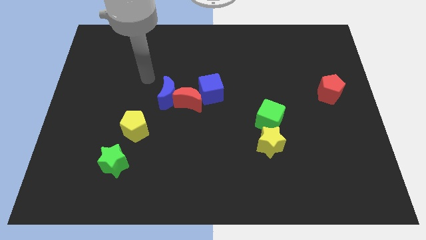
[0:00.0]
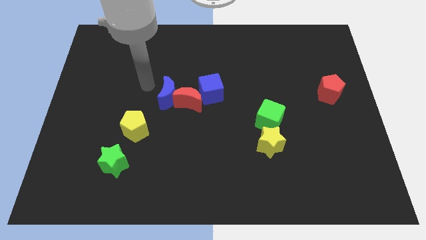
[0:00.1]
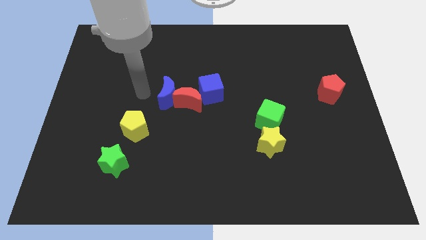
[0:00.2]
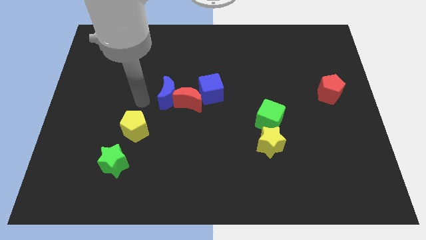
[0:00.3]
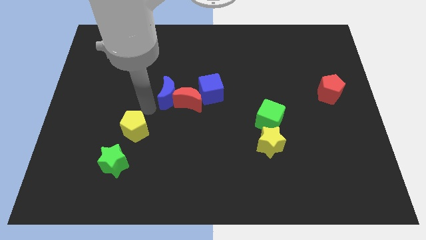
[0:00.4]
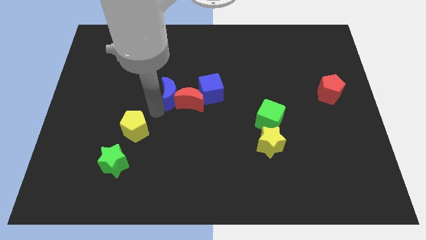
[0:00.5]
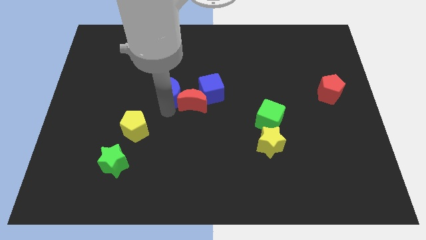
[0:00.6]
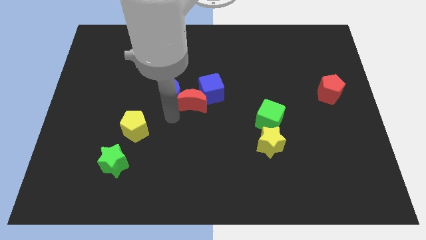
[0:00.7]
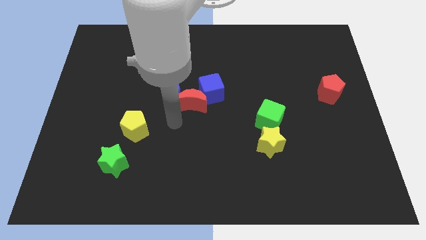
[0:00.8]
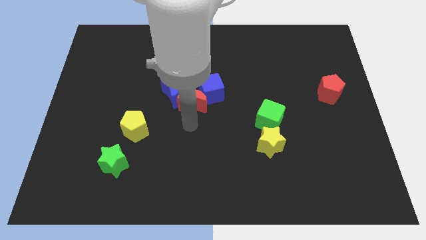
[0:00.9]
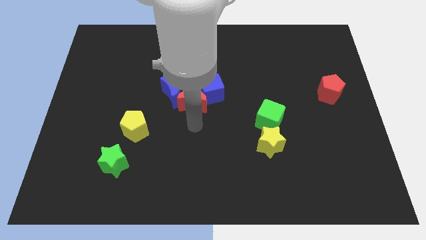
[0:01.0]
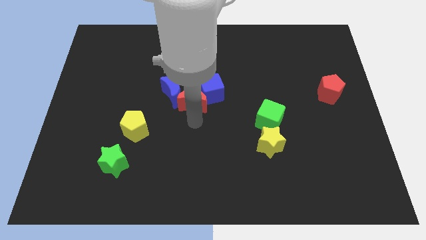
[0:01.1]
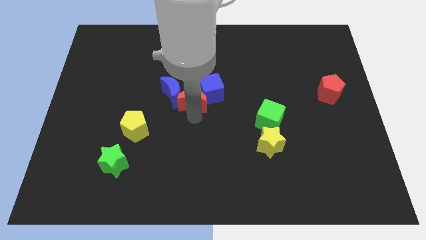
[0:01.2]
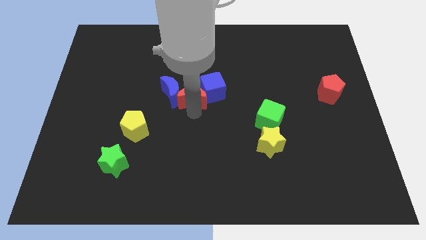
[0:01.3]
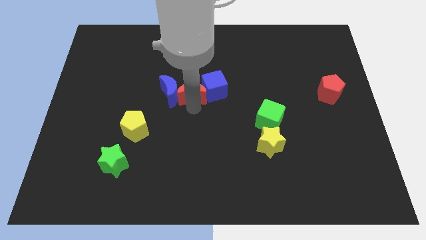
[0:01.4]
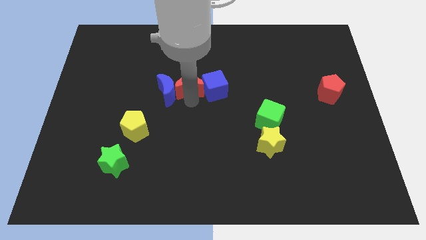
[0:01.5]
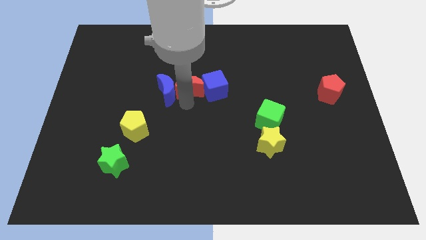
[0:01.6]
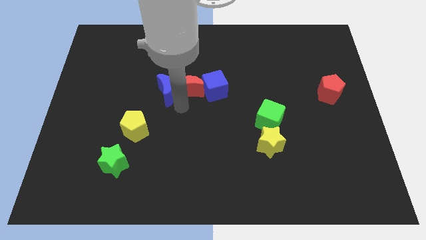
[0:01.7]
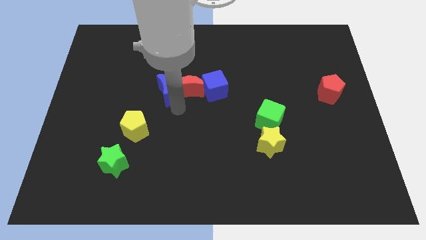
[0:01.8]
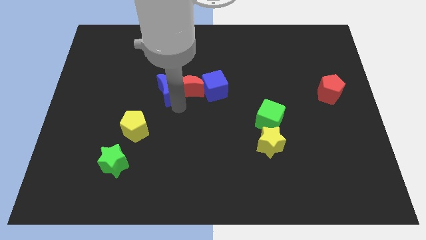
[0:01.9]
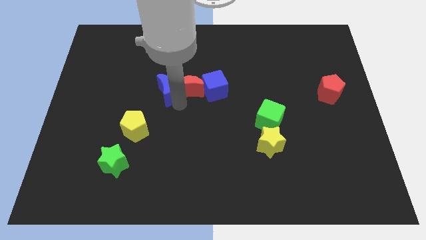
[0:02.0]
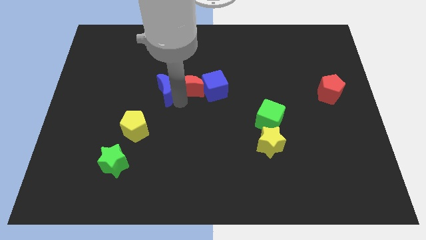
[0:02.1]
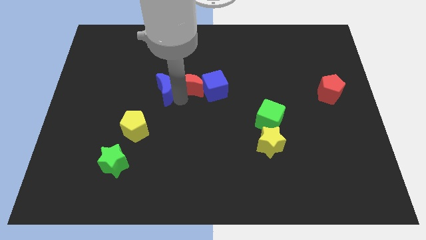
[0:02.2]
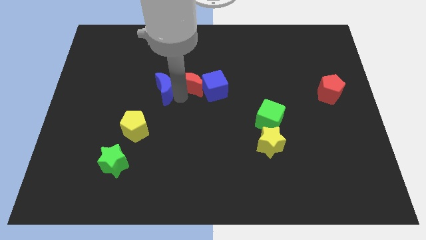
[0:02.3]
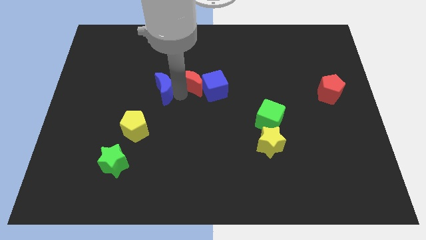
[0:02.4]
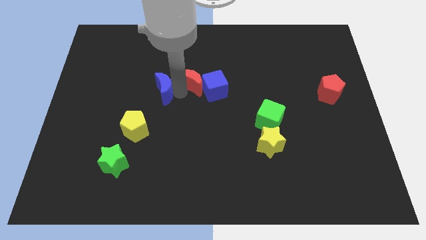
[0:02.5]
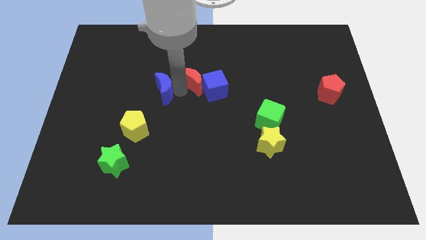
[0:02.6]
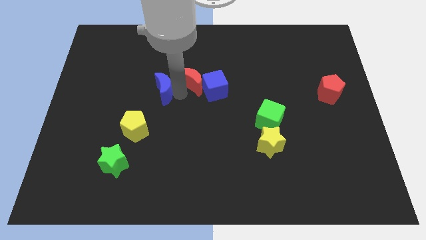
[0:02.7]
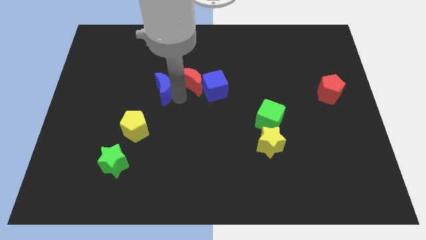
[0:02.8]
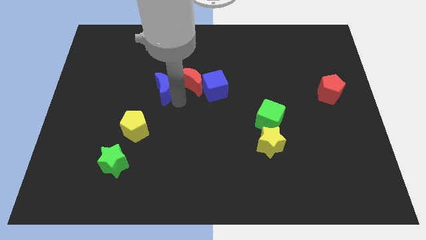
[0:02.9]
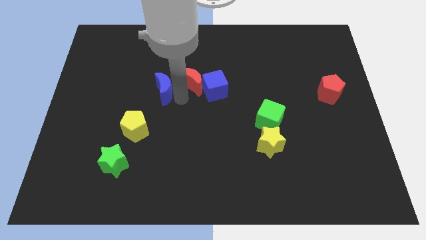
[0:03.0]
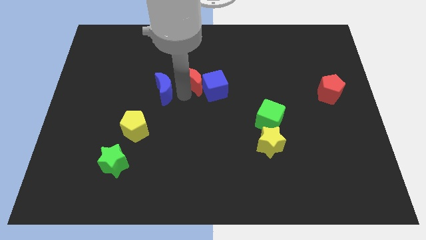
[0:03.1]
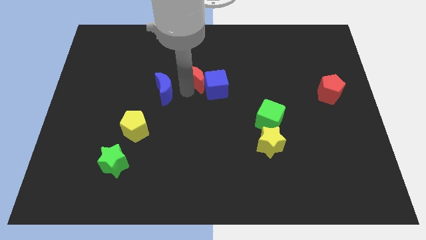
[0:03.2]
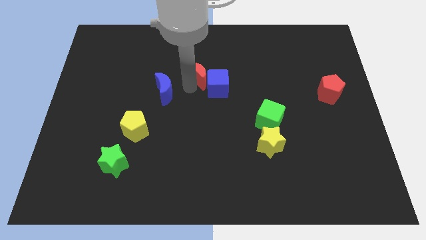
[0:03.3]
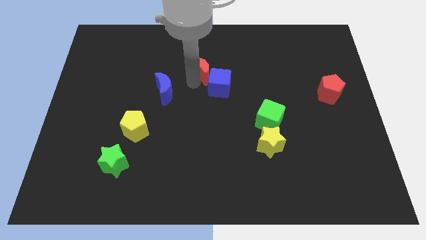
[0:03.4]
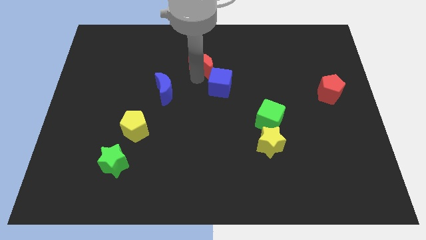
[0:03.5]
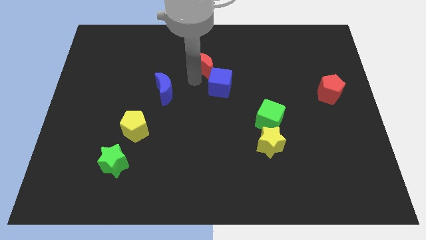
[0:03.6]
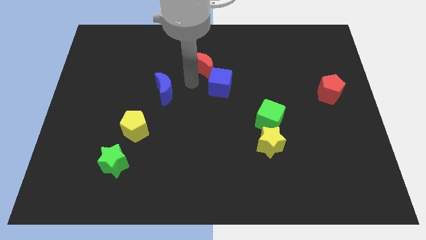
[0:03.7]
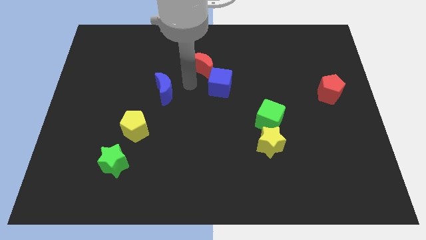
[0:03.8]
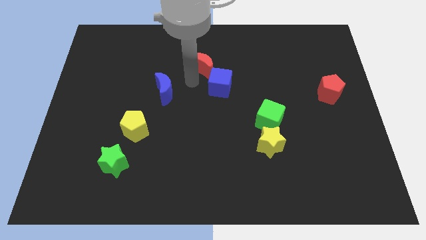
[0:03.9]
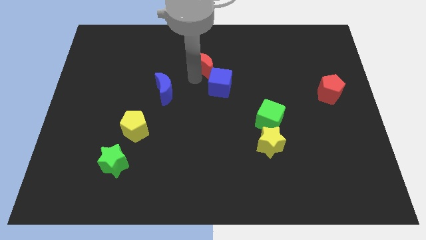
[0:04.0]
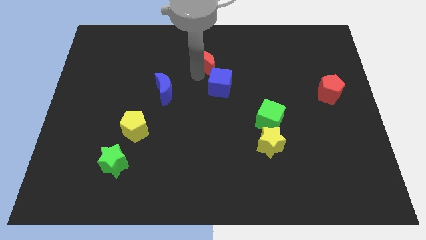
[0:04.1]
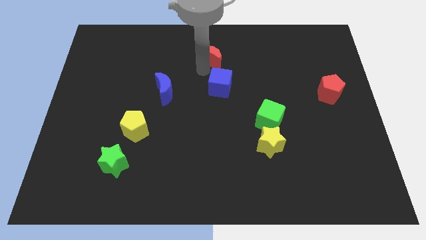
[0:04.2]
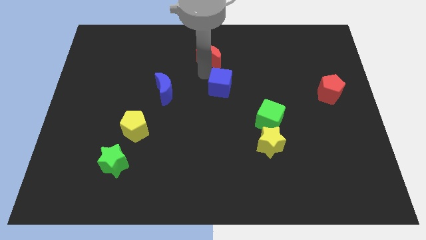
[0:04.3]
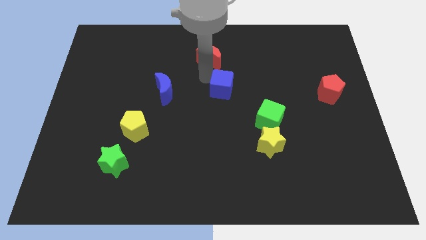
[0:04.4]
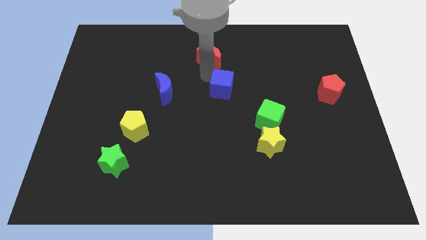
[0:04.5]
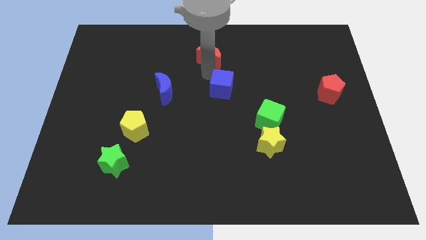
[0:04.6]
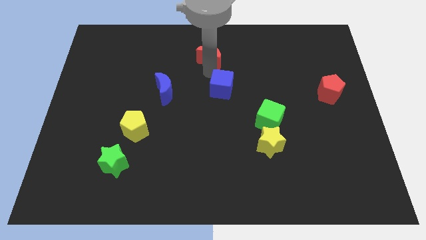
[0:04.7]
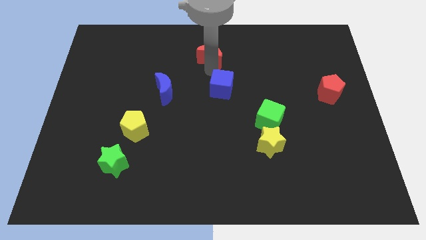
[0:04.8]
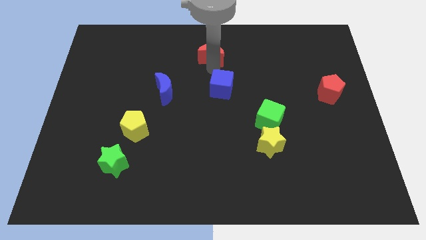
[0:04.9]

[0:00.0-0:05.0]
move the red moon to the top
